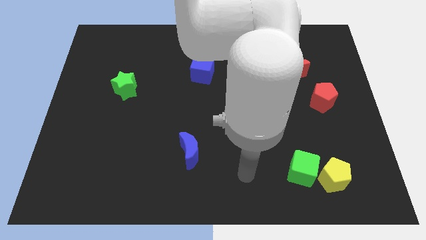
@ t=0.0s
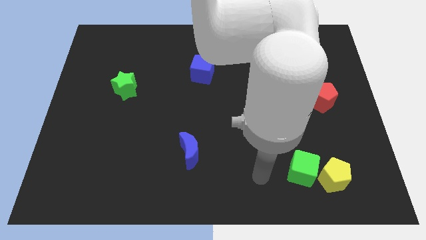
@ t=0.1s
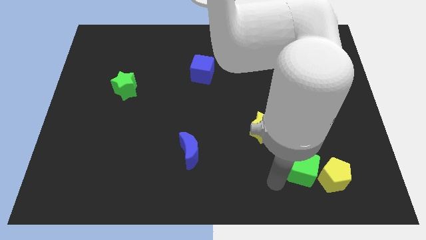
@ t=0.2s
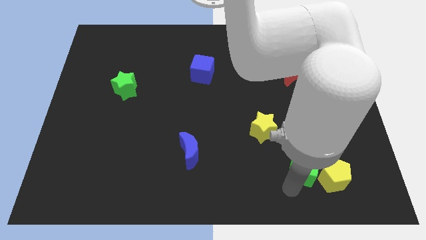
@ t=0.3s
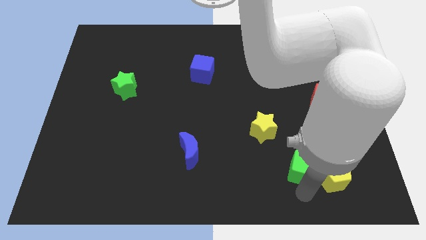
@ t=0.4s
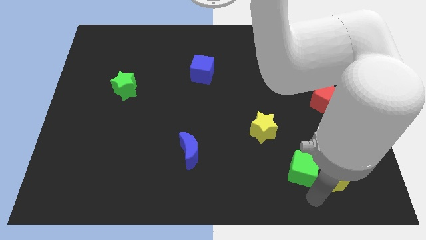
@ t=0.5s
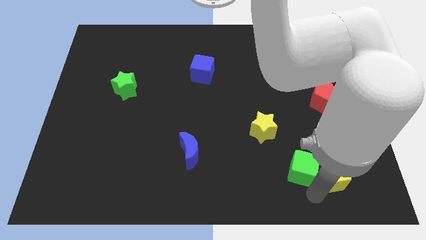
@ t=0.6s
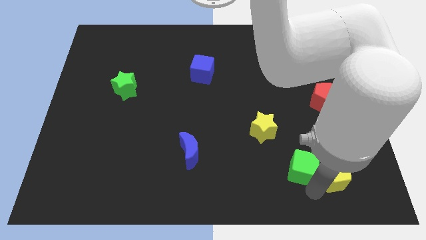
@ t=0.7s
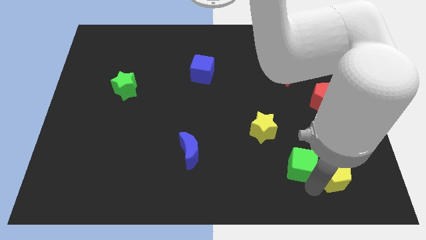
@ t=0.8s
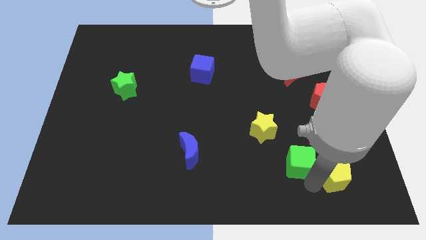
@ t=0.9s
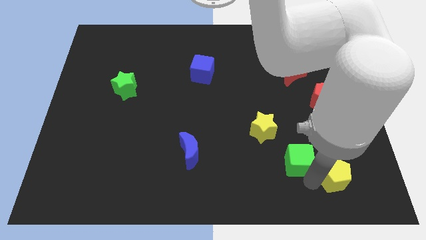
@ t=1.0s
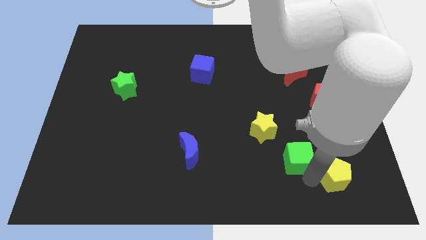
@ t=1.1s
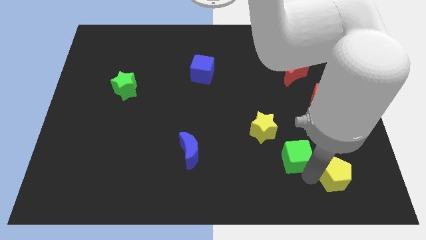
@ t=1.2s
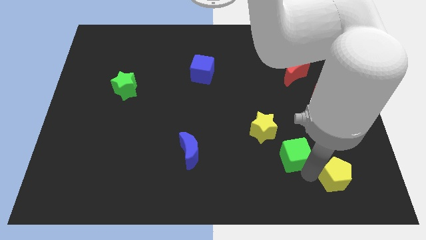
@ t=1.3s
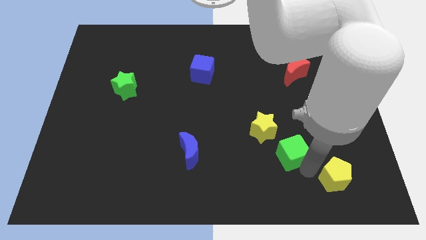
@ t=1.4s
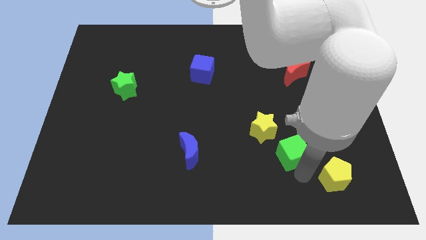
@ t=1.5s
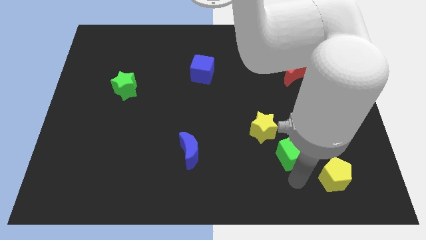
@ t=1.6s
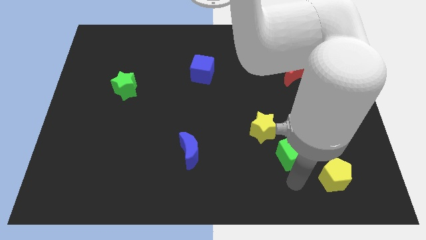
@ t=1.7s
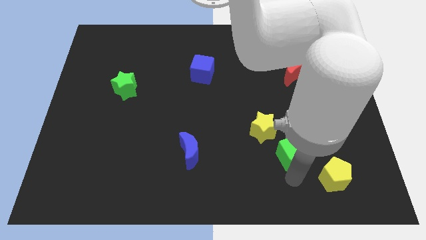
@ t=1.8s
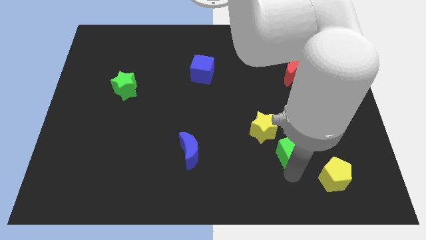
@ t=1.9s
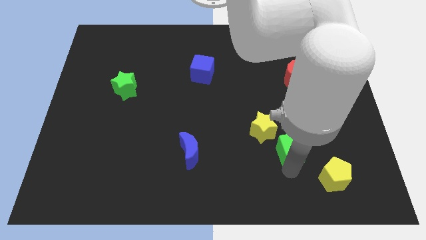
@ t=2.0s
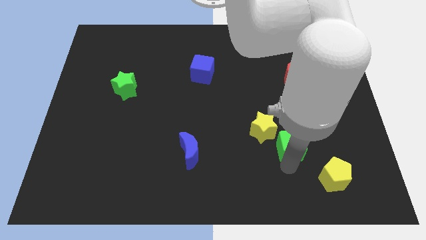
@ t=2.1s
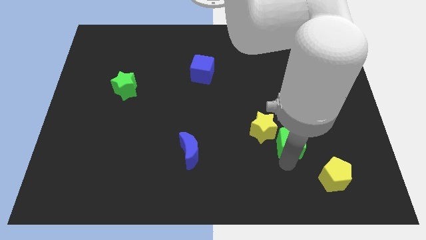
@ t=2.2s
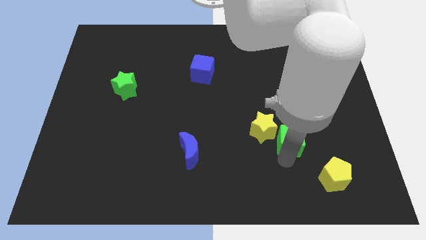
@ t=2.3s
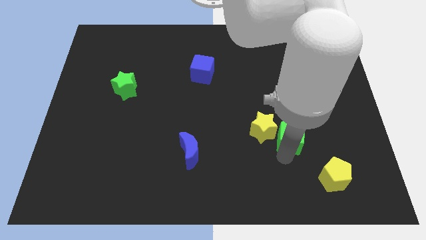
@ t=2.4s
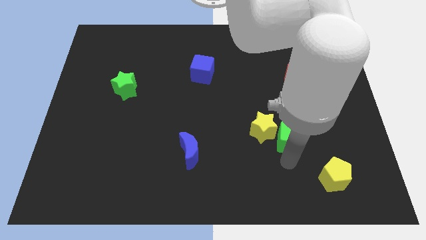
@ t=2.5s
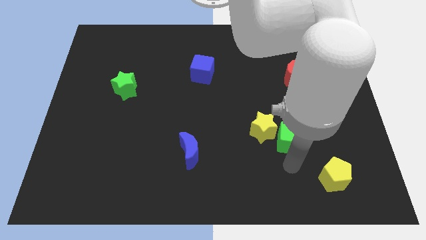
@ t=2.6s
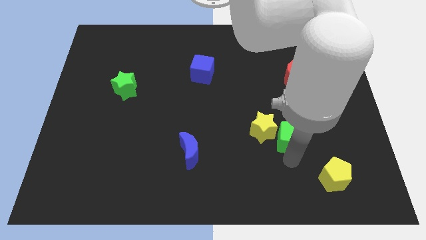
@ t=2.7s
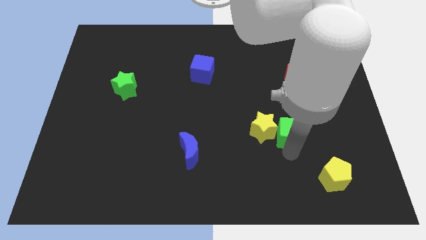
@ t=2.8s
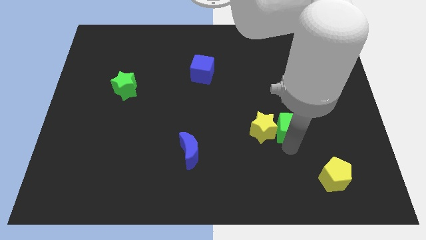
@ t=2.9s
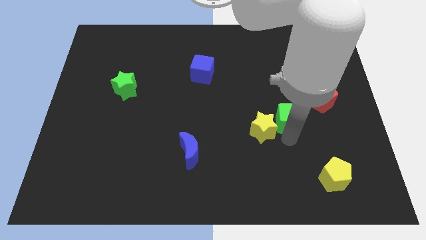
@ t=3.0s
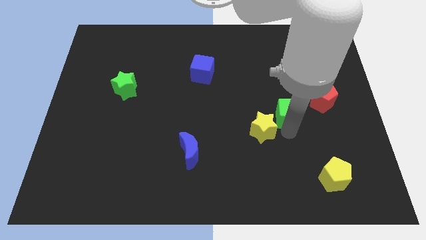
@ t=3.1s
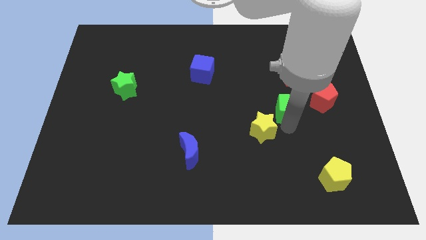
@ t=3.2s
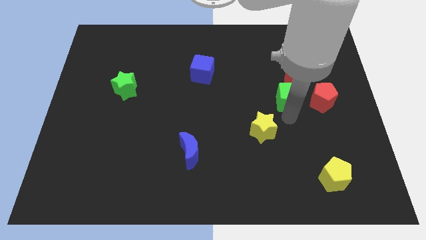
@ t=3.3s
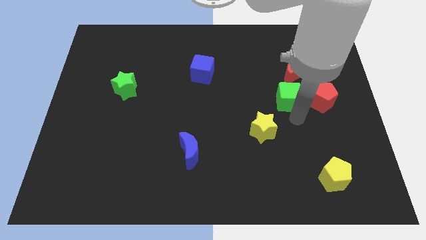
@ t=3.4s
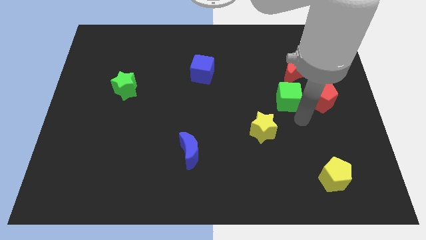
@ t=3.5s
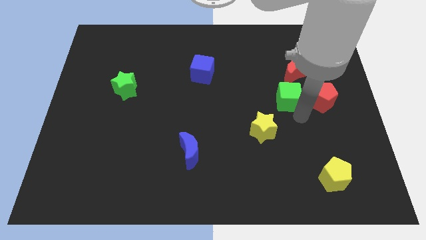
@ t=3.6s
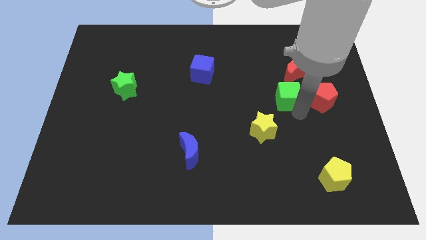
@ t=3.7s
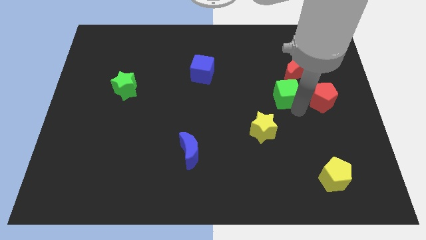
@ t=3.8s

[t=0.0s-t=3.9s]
slide the green cube up

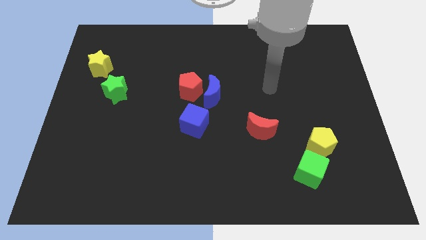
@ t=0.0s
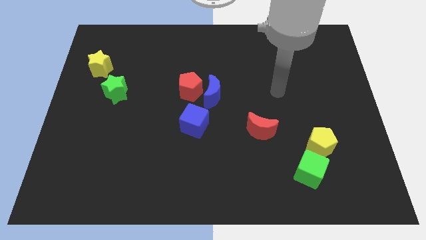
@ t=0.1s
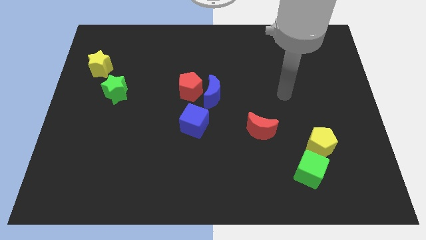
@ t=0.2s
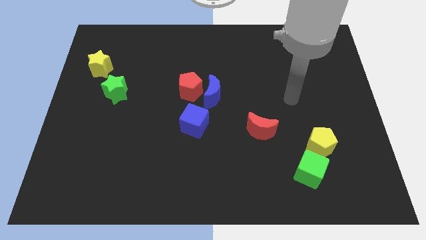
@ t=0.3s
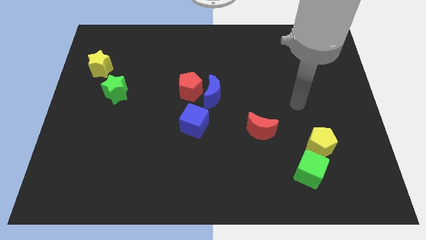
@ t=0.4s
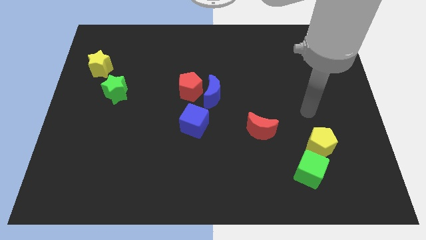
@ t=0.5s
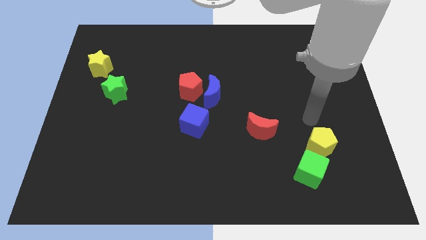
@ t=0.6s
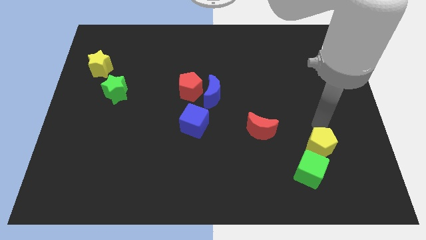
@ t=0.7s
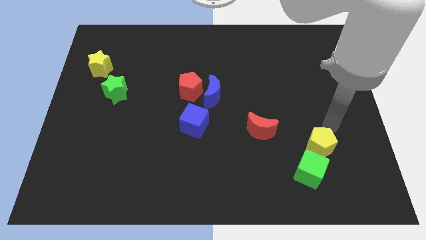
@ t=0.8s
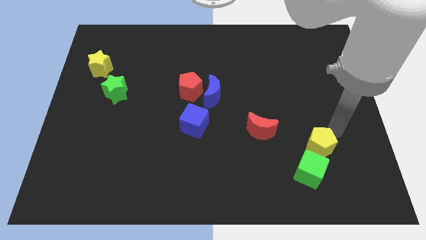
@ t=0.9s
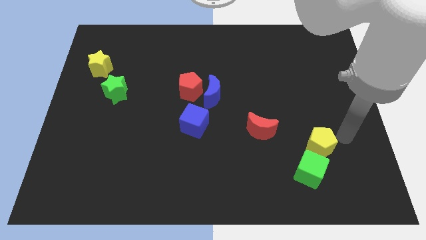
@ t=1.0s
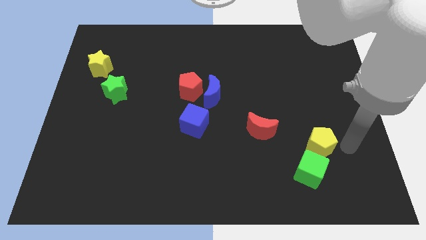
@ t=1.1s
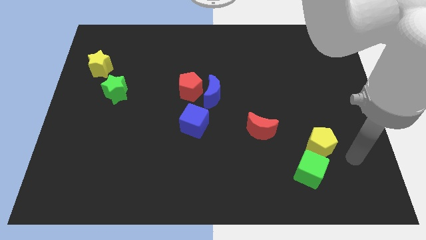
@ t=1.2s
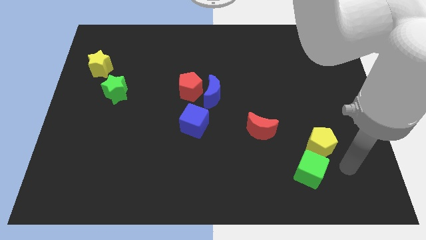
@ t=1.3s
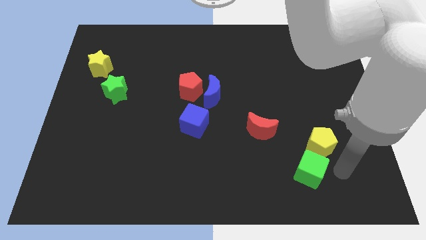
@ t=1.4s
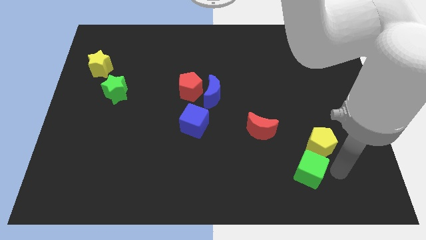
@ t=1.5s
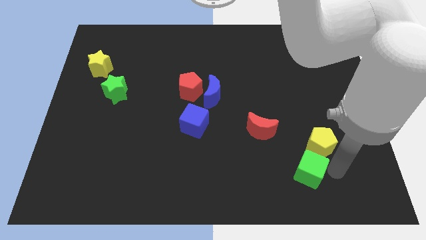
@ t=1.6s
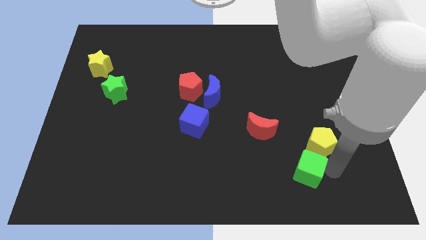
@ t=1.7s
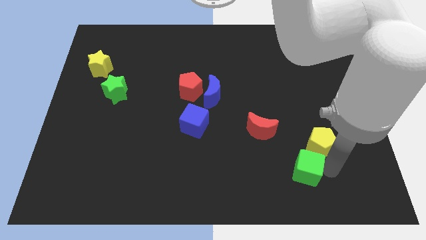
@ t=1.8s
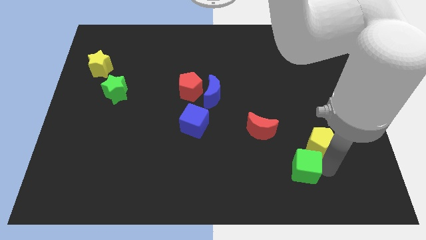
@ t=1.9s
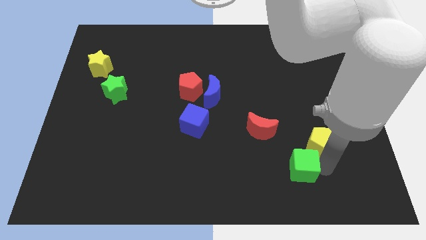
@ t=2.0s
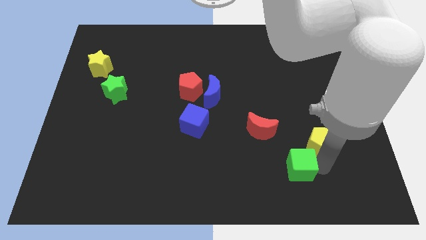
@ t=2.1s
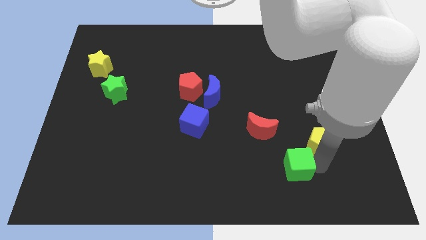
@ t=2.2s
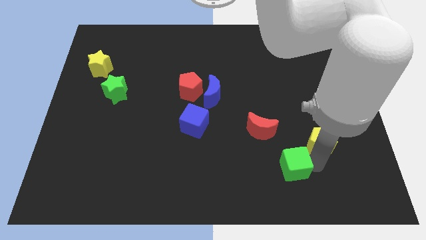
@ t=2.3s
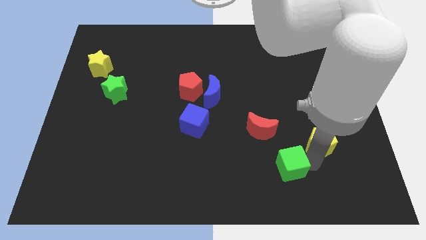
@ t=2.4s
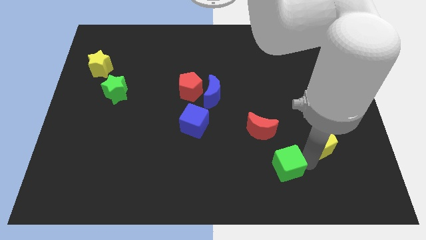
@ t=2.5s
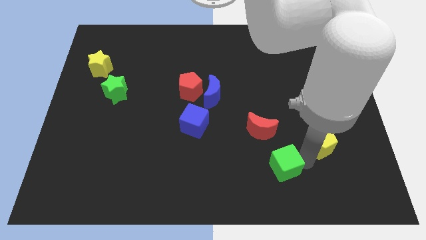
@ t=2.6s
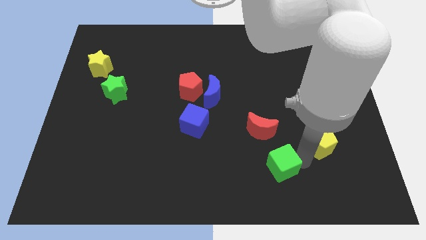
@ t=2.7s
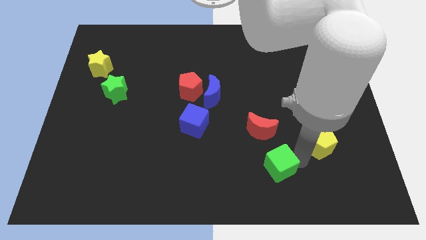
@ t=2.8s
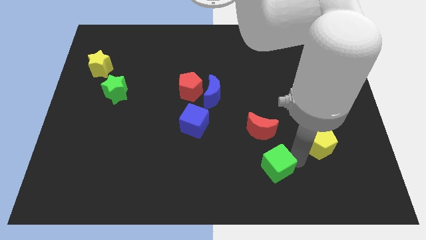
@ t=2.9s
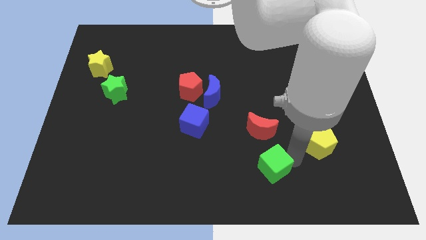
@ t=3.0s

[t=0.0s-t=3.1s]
slightly move the green cube left

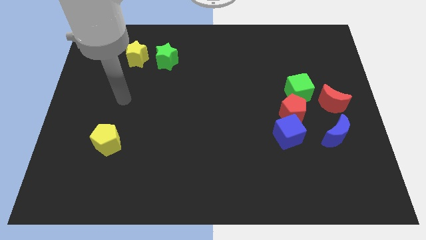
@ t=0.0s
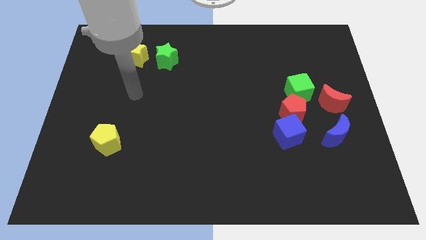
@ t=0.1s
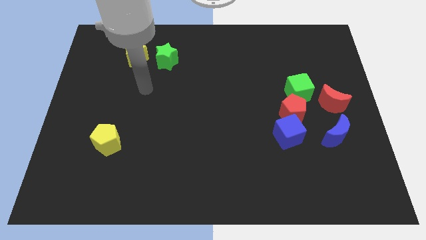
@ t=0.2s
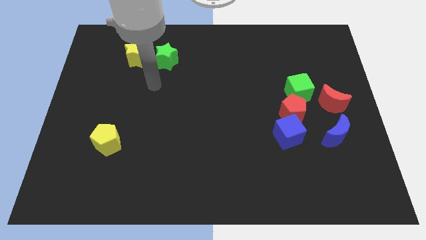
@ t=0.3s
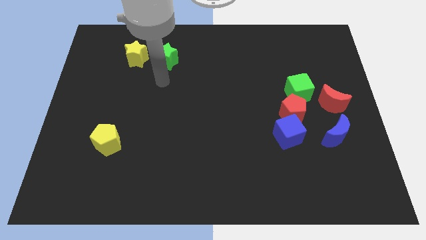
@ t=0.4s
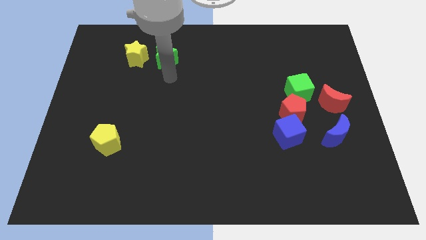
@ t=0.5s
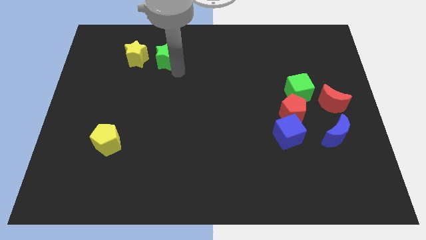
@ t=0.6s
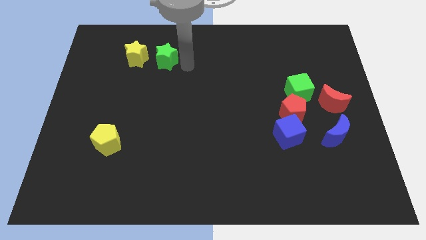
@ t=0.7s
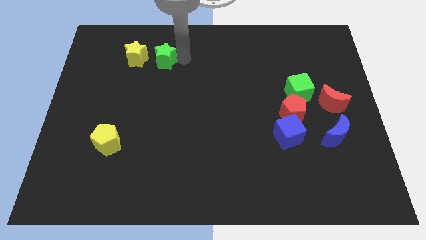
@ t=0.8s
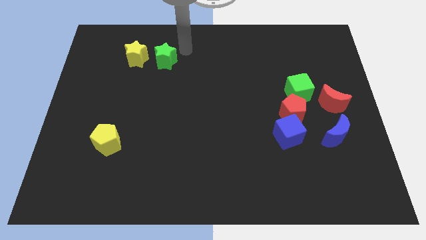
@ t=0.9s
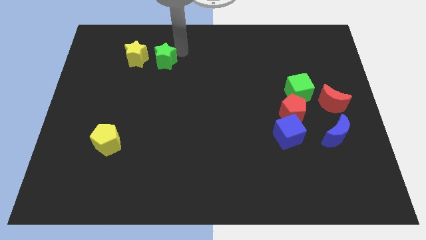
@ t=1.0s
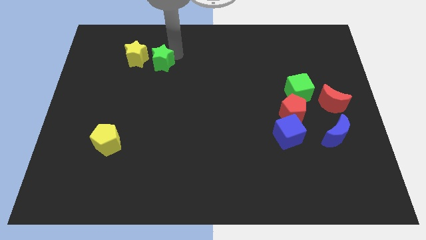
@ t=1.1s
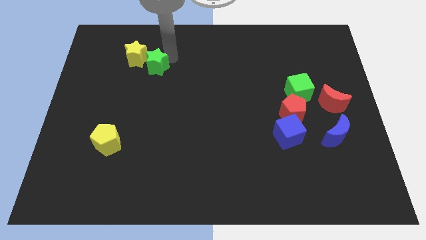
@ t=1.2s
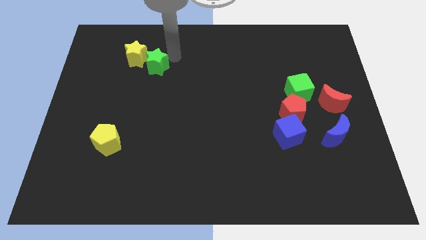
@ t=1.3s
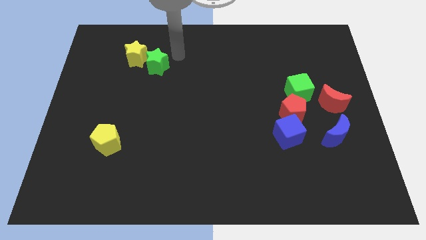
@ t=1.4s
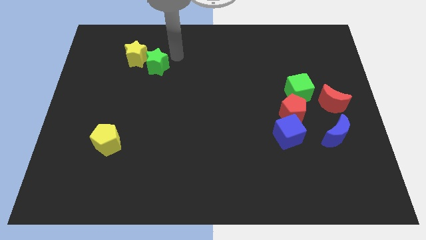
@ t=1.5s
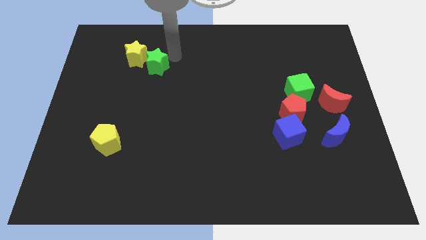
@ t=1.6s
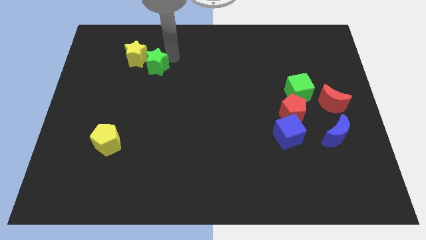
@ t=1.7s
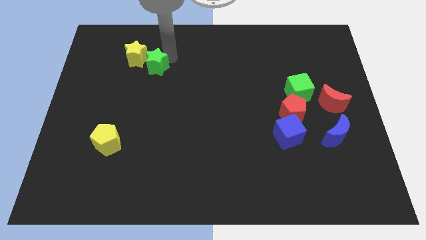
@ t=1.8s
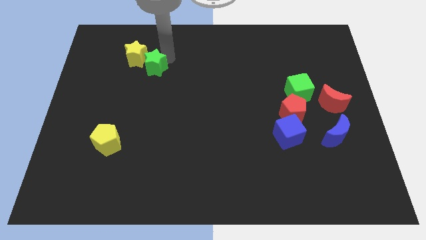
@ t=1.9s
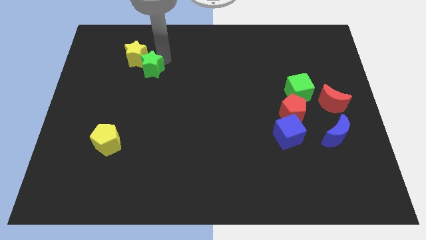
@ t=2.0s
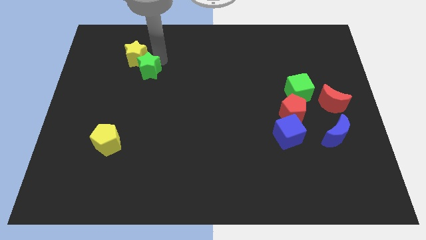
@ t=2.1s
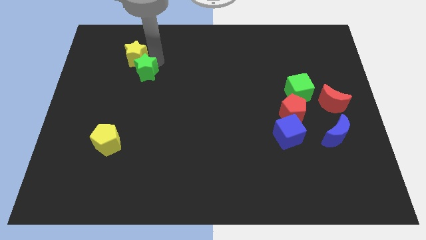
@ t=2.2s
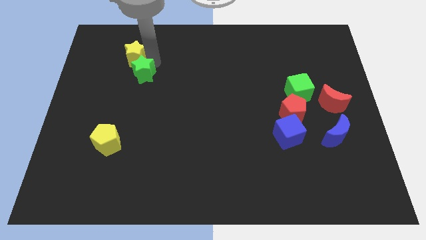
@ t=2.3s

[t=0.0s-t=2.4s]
move the green star downwards and then left a little
